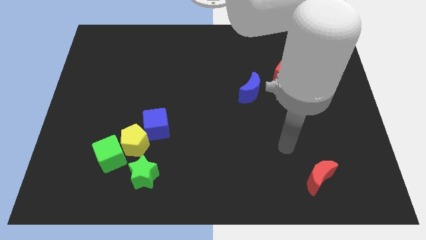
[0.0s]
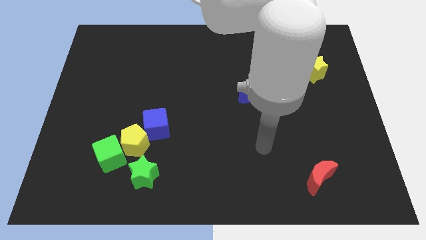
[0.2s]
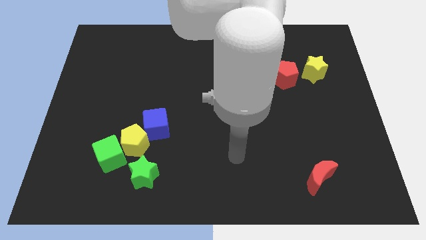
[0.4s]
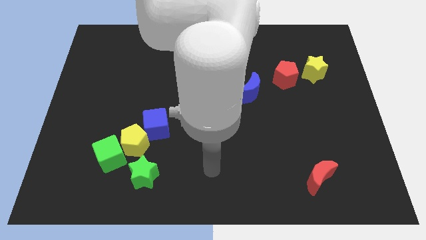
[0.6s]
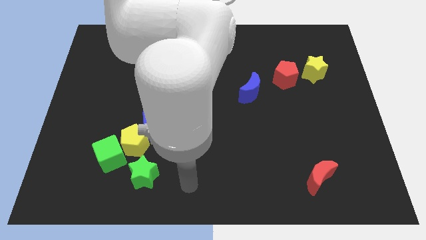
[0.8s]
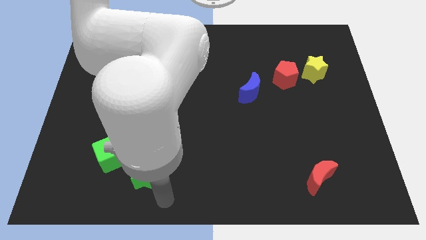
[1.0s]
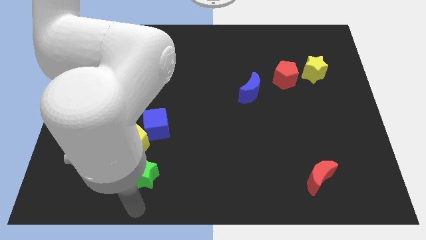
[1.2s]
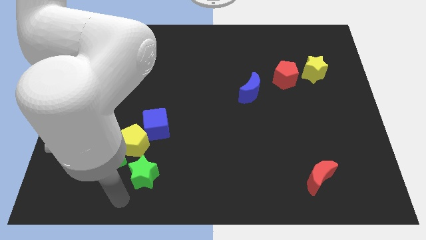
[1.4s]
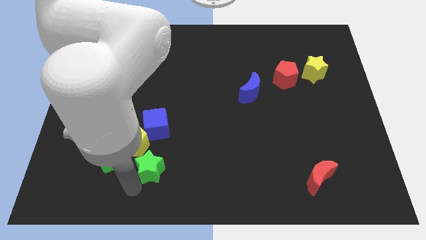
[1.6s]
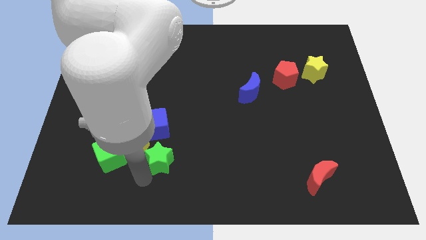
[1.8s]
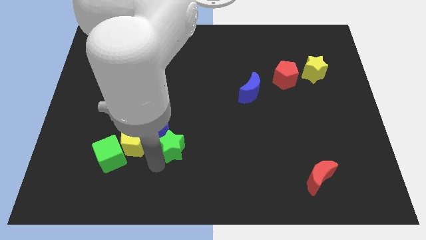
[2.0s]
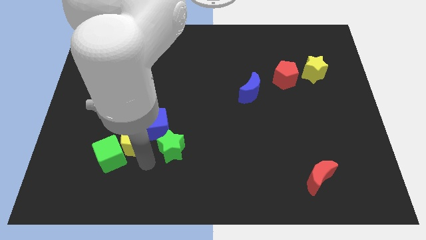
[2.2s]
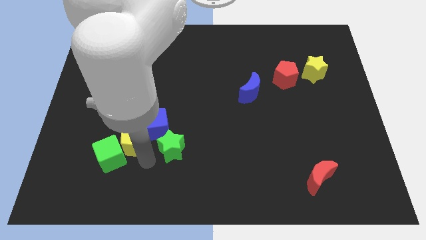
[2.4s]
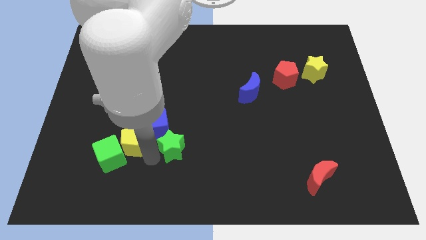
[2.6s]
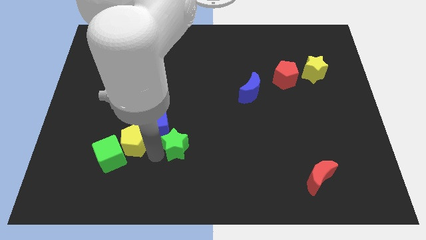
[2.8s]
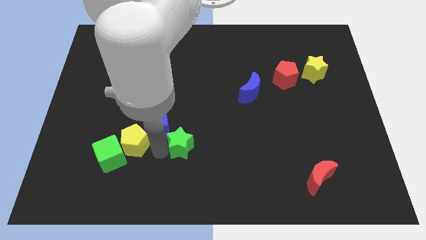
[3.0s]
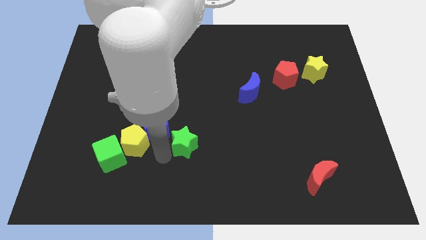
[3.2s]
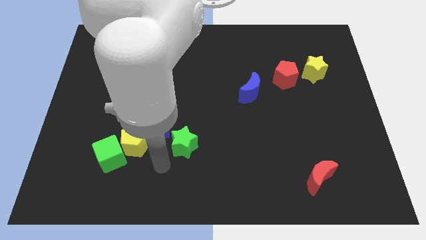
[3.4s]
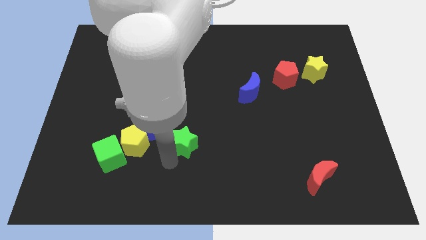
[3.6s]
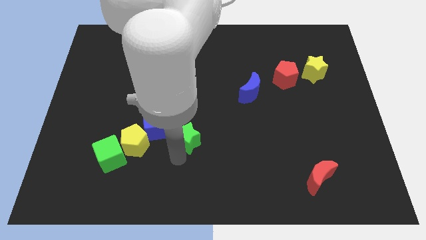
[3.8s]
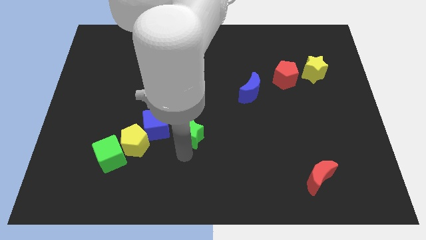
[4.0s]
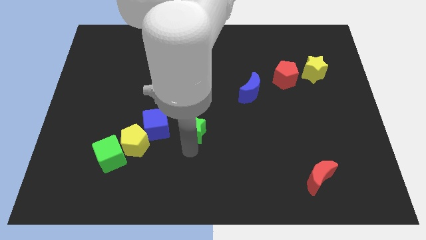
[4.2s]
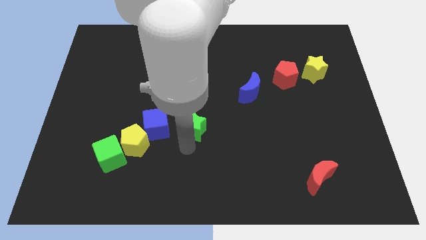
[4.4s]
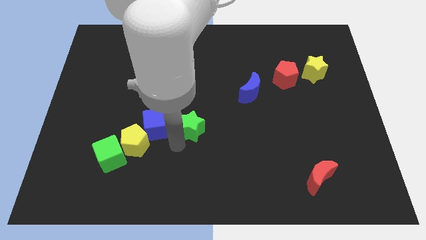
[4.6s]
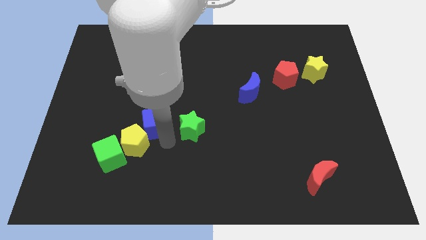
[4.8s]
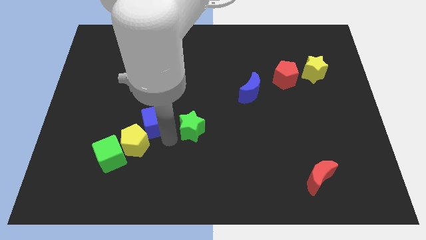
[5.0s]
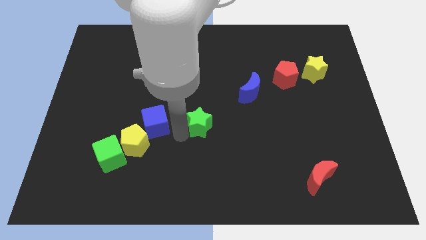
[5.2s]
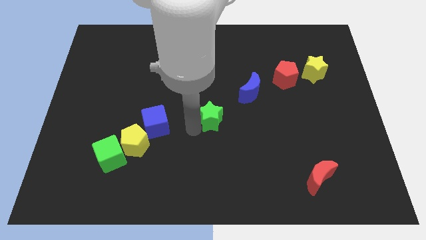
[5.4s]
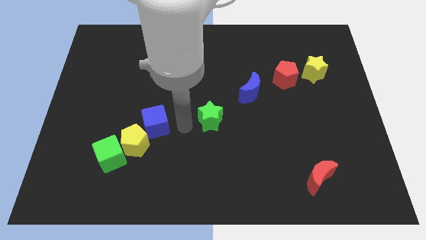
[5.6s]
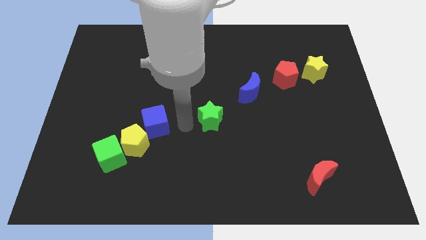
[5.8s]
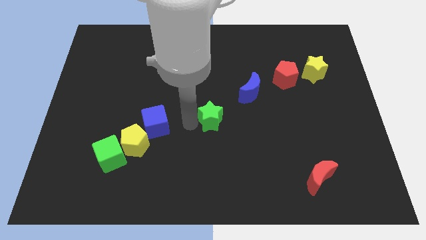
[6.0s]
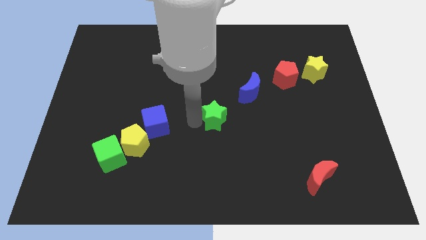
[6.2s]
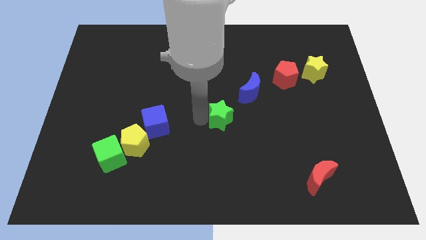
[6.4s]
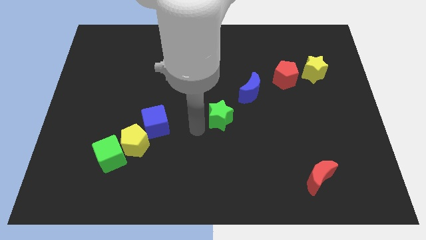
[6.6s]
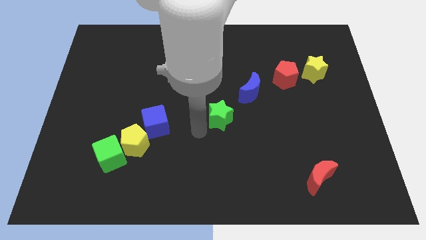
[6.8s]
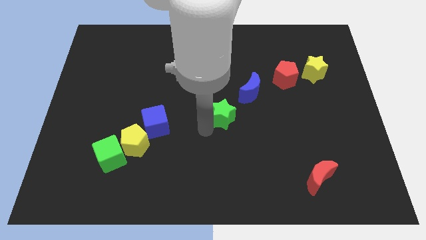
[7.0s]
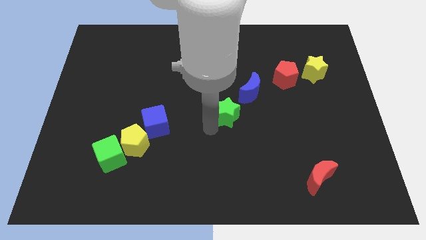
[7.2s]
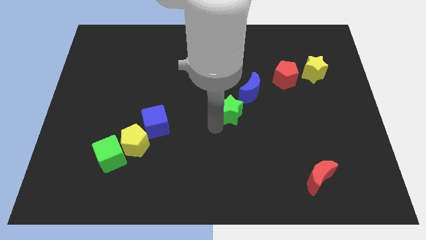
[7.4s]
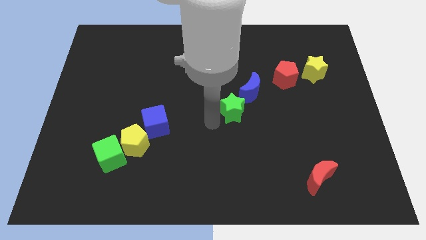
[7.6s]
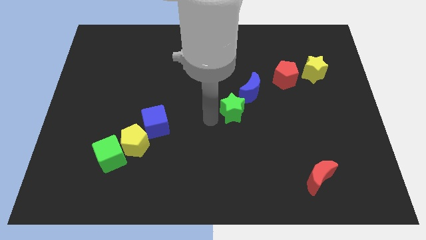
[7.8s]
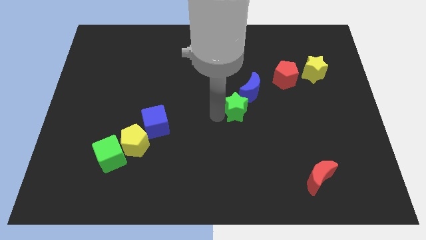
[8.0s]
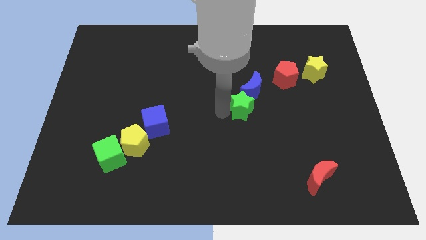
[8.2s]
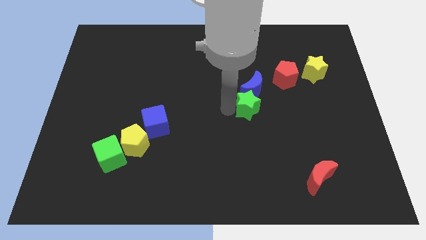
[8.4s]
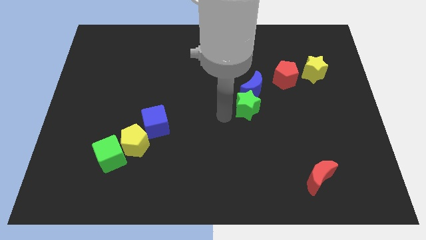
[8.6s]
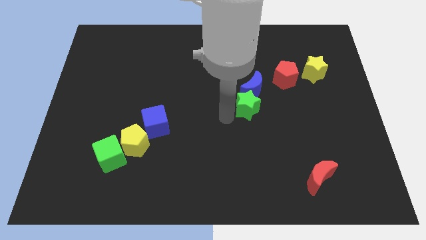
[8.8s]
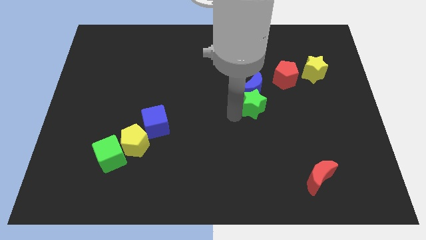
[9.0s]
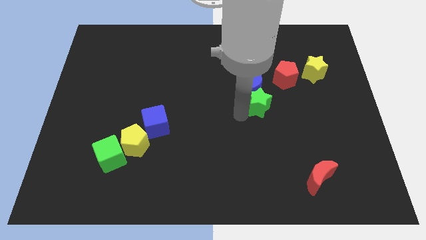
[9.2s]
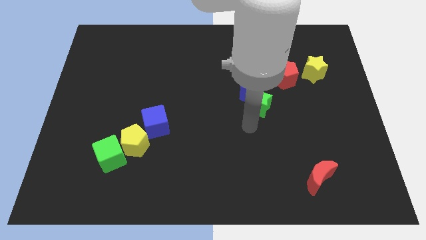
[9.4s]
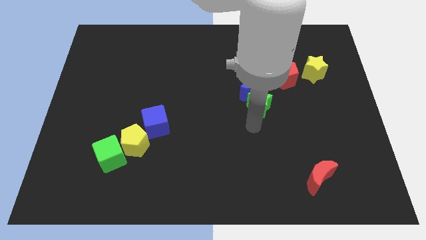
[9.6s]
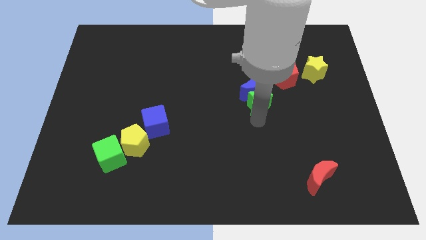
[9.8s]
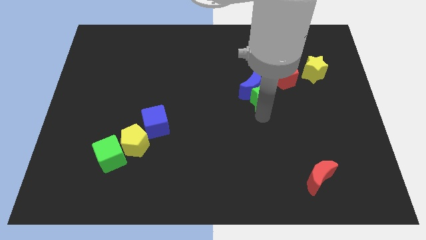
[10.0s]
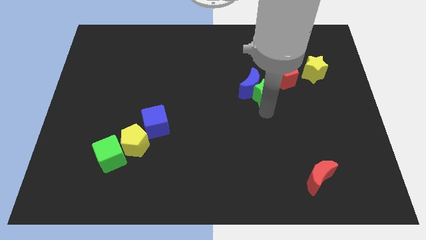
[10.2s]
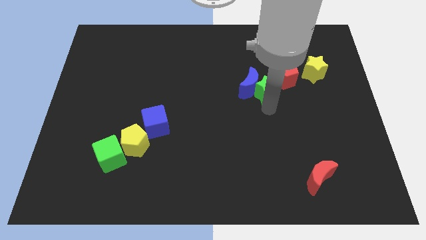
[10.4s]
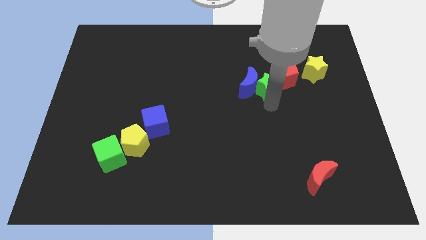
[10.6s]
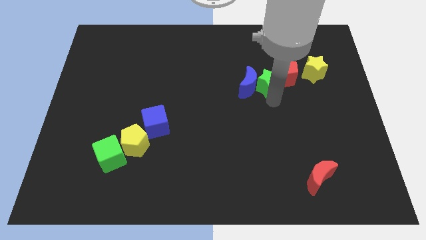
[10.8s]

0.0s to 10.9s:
move the green star to the left of the yellow star

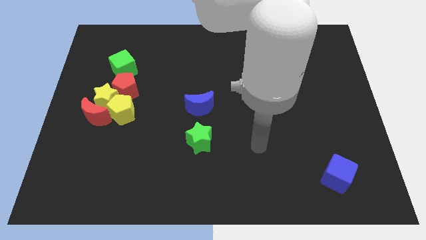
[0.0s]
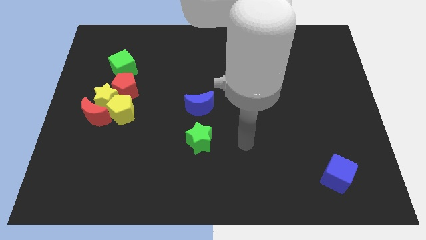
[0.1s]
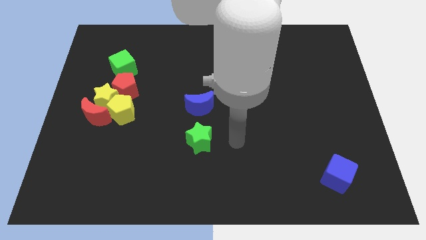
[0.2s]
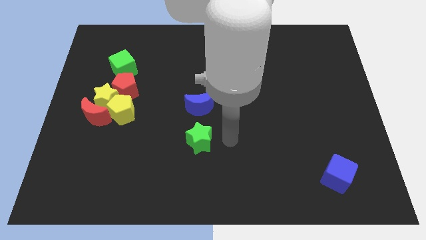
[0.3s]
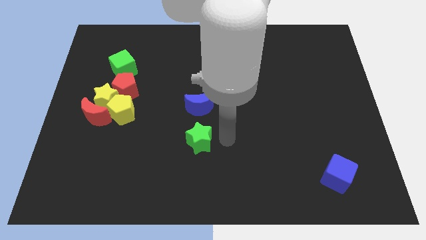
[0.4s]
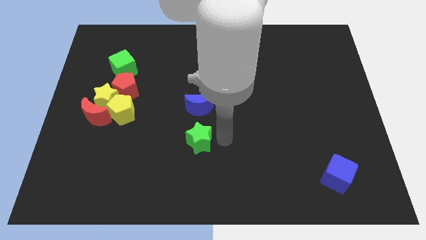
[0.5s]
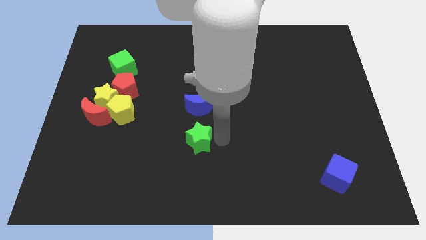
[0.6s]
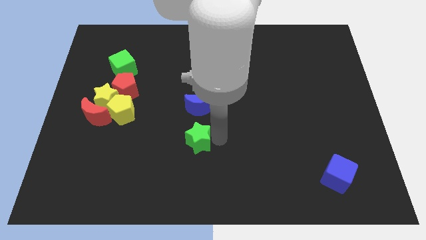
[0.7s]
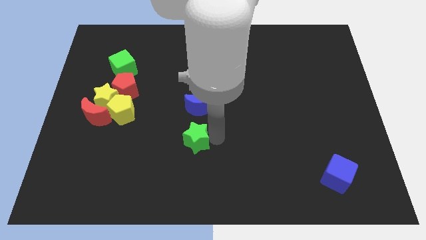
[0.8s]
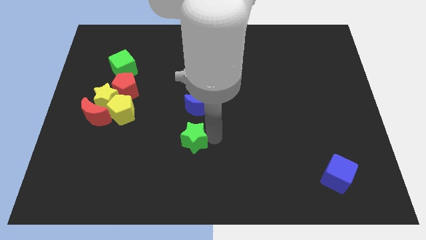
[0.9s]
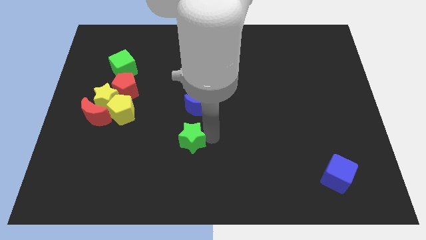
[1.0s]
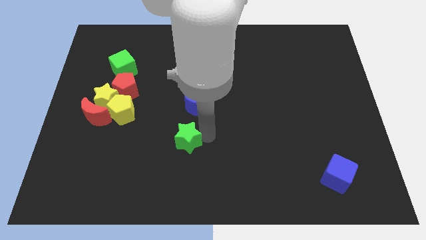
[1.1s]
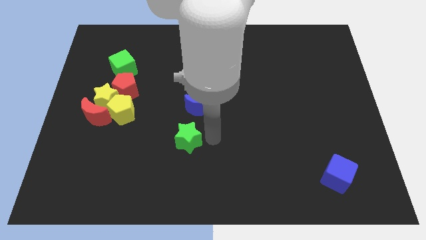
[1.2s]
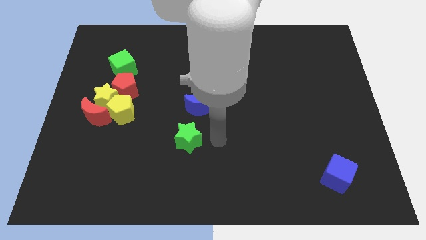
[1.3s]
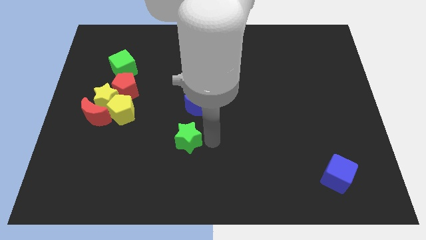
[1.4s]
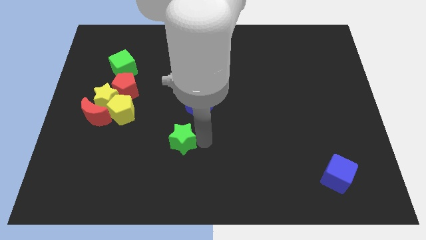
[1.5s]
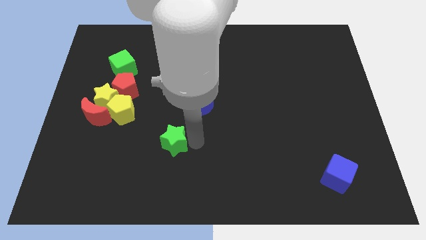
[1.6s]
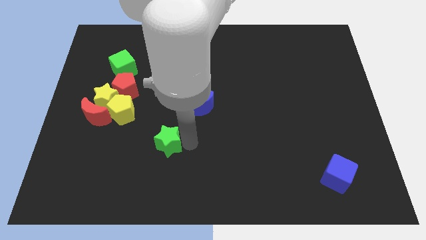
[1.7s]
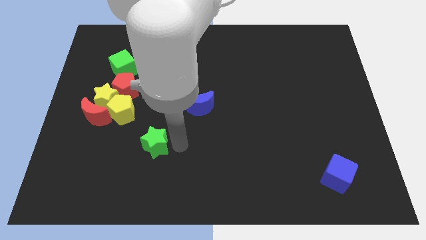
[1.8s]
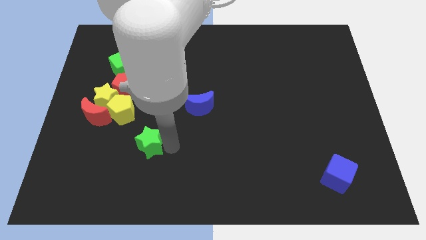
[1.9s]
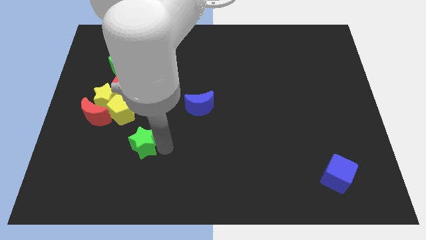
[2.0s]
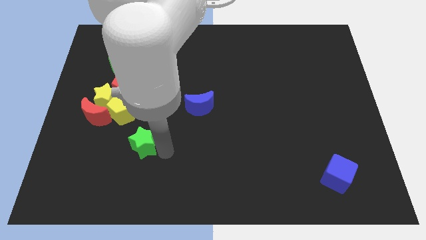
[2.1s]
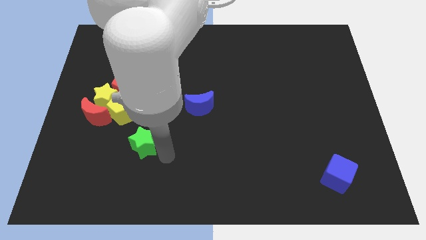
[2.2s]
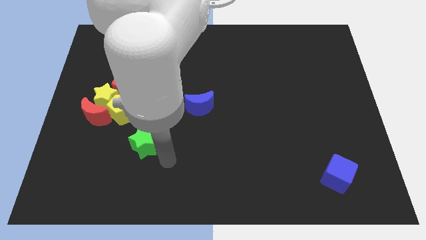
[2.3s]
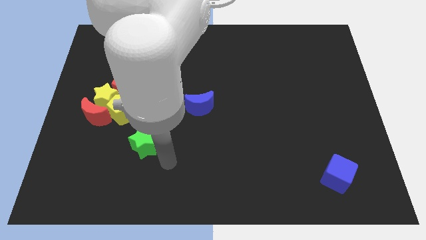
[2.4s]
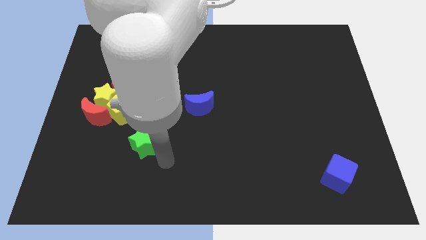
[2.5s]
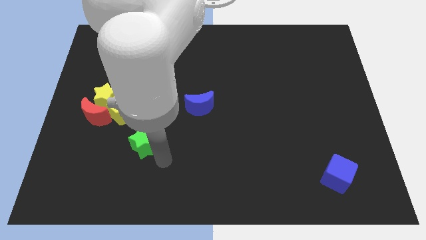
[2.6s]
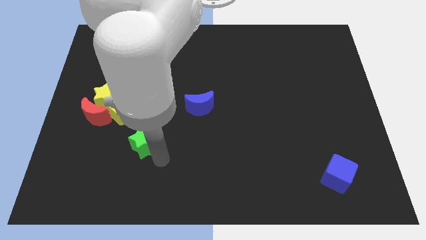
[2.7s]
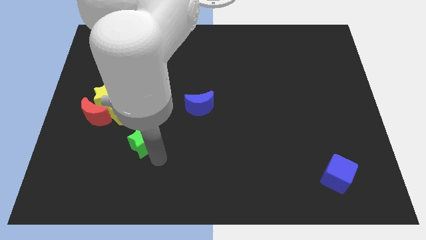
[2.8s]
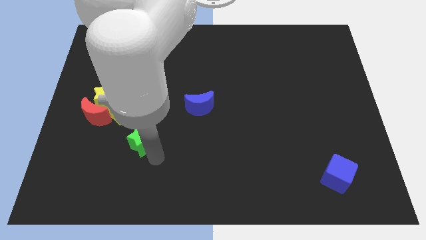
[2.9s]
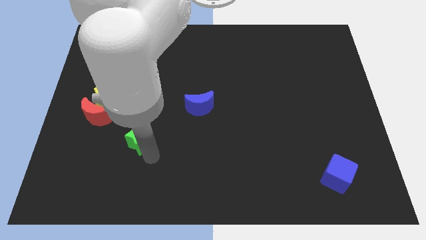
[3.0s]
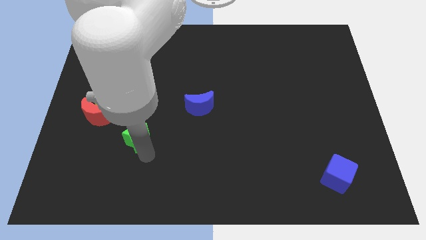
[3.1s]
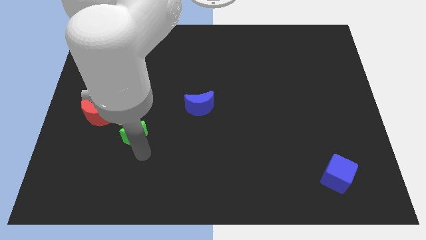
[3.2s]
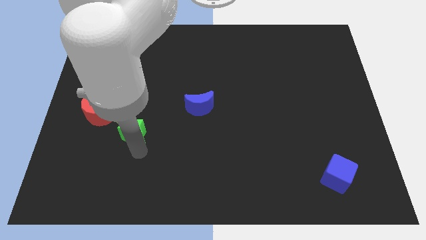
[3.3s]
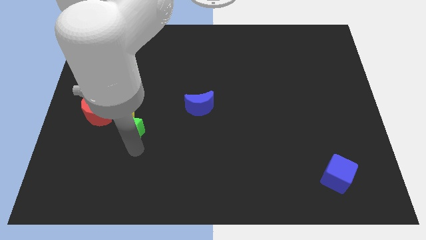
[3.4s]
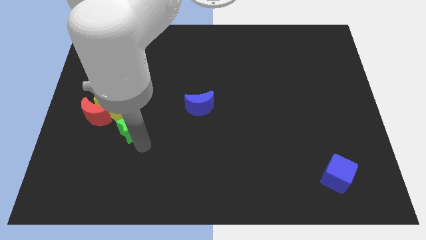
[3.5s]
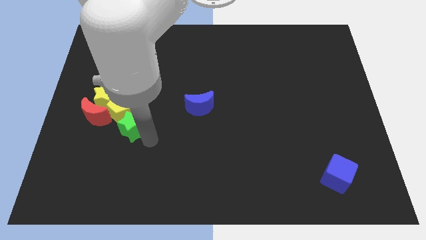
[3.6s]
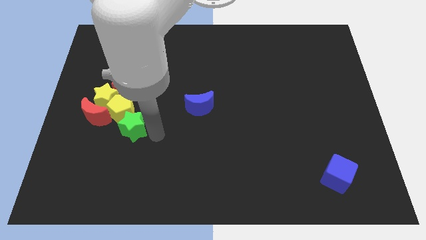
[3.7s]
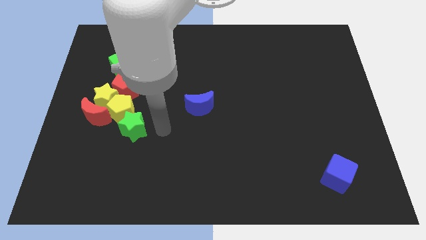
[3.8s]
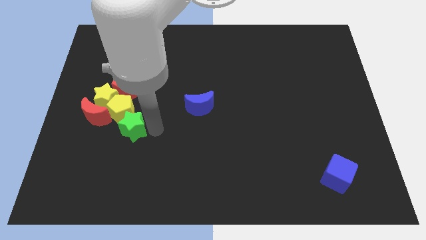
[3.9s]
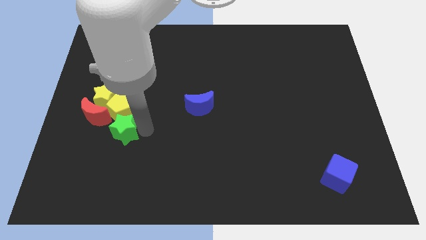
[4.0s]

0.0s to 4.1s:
push the green star to the bottom left side of the yellow pentagon
